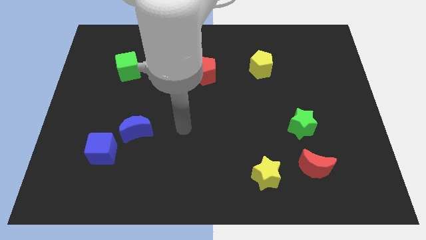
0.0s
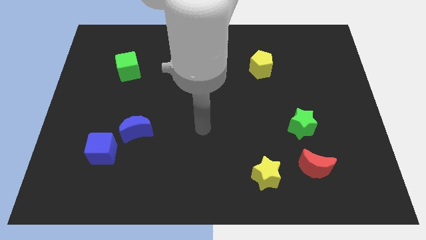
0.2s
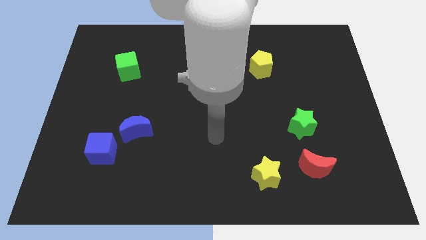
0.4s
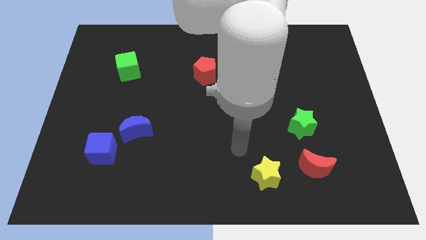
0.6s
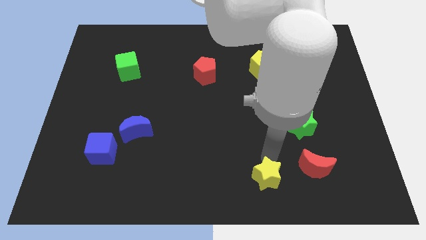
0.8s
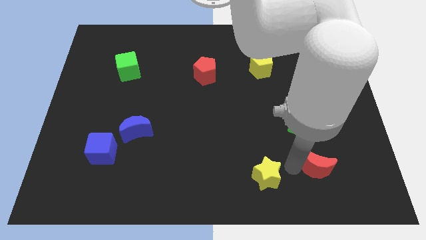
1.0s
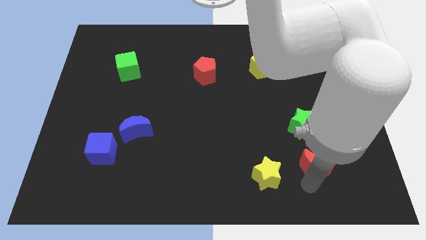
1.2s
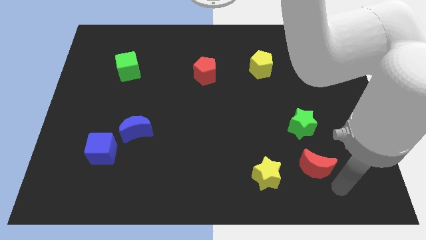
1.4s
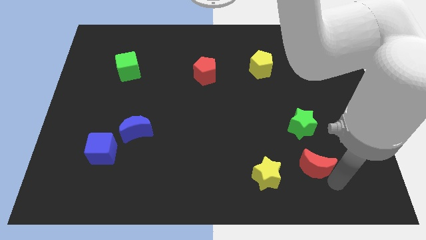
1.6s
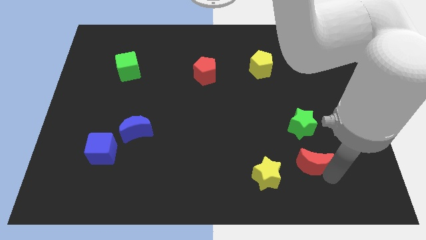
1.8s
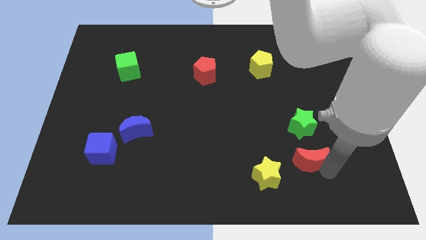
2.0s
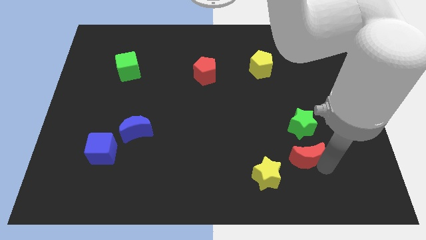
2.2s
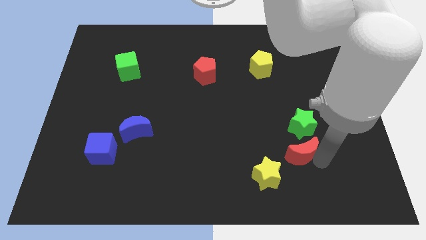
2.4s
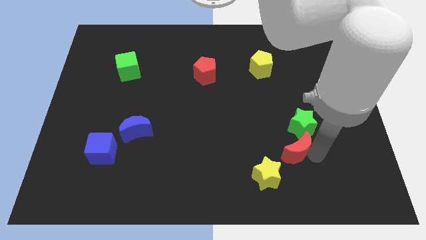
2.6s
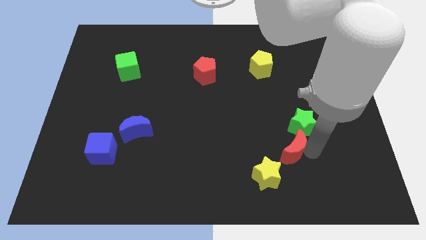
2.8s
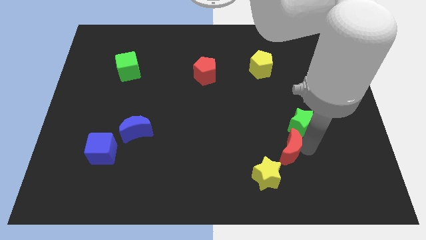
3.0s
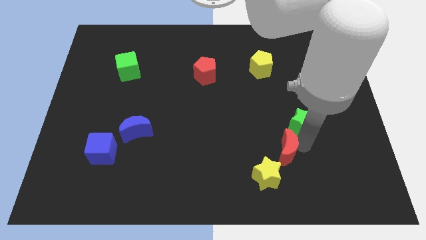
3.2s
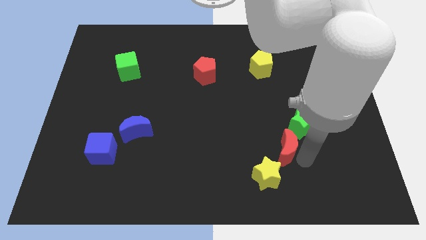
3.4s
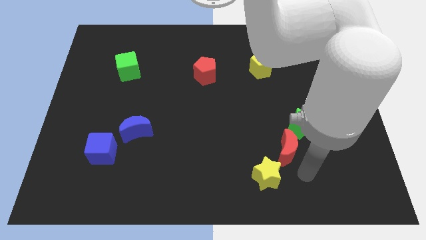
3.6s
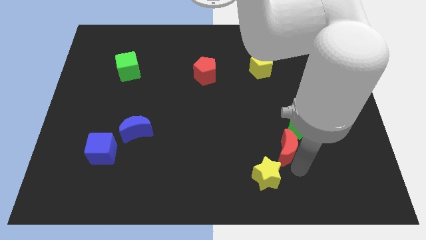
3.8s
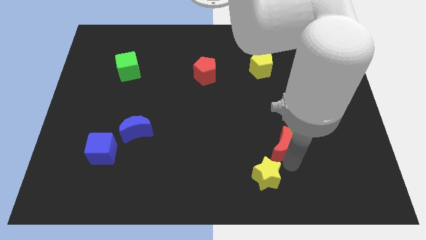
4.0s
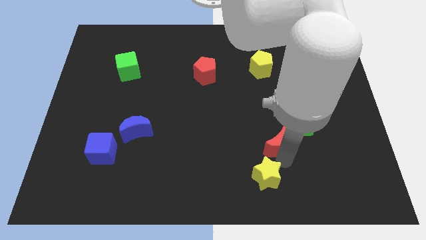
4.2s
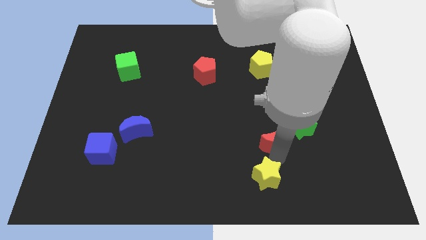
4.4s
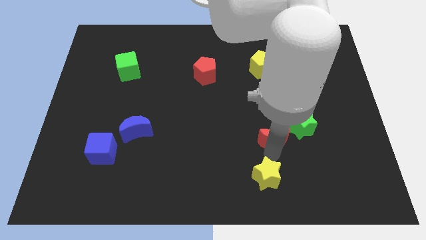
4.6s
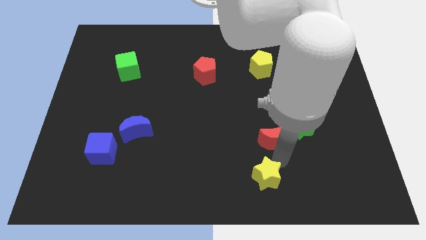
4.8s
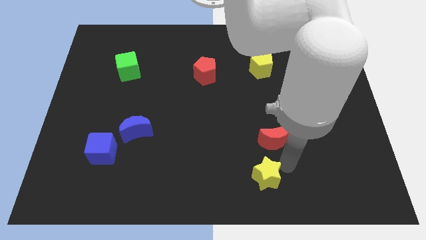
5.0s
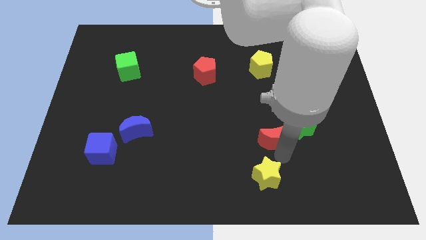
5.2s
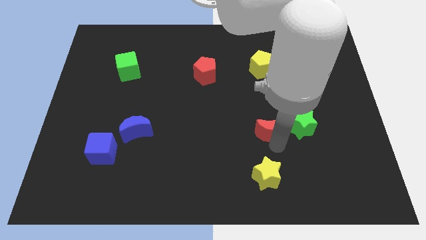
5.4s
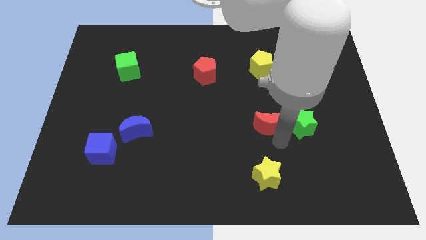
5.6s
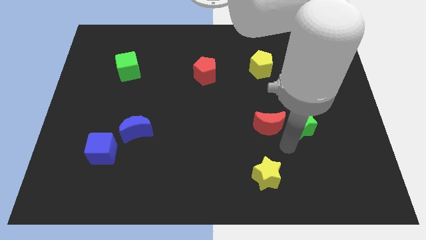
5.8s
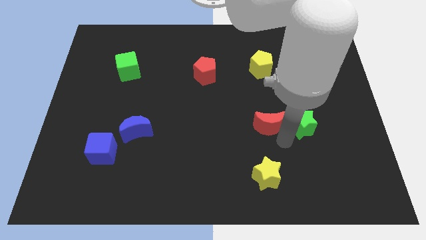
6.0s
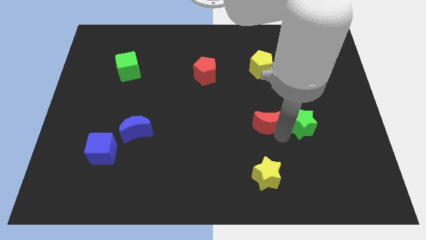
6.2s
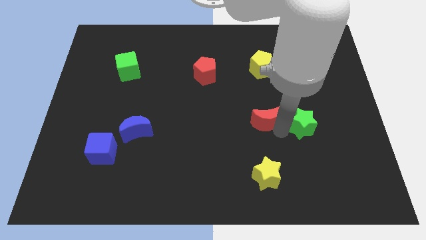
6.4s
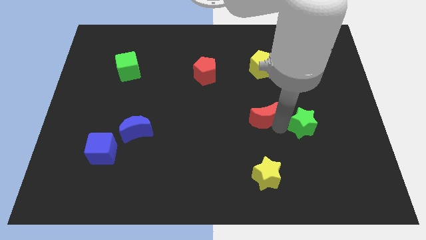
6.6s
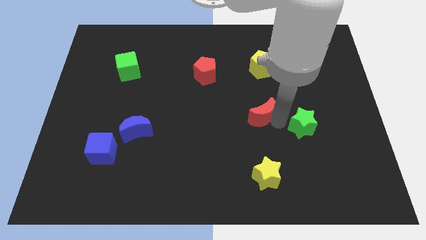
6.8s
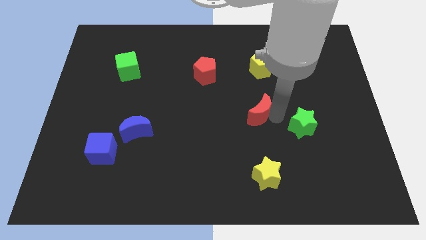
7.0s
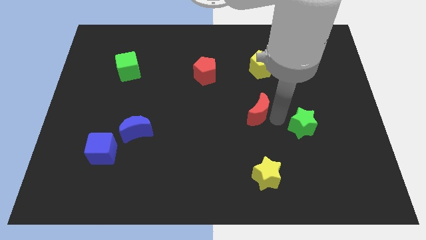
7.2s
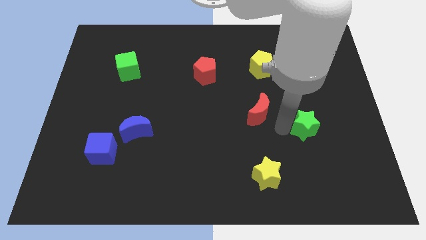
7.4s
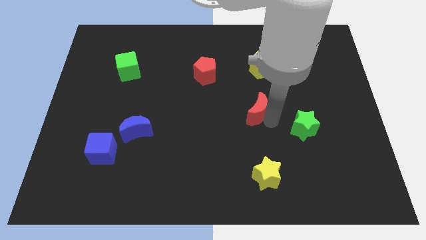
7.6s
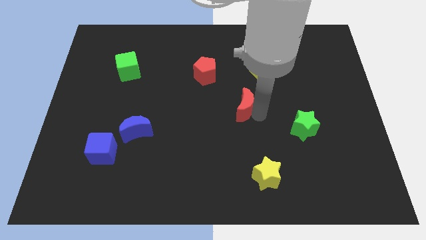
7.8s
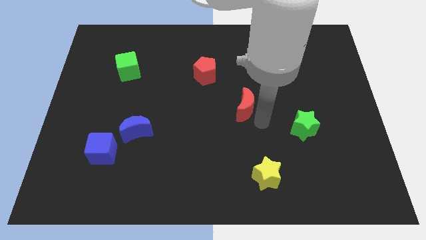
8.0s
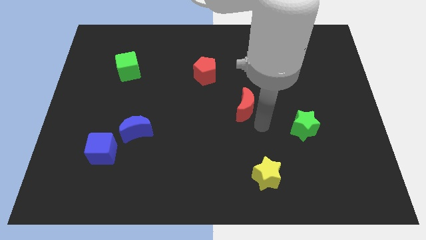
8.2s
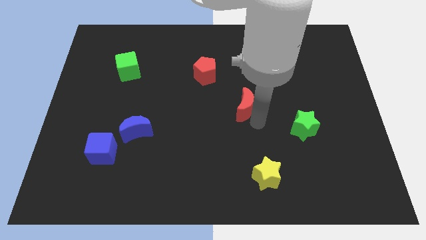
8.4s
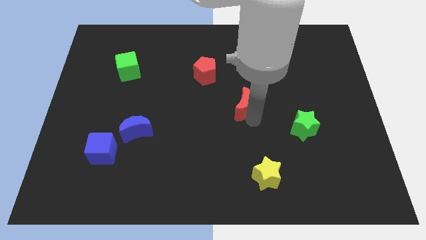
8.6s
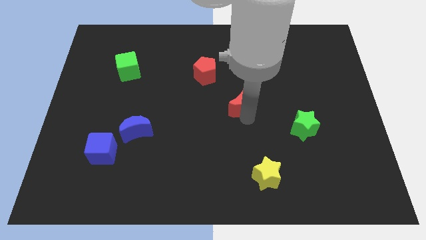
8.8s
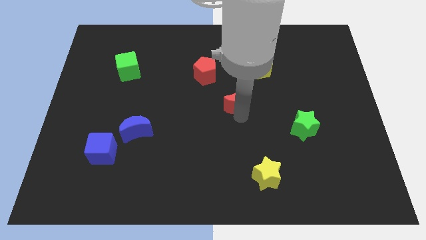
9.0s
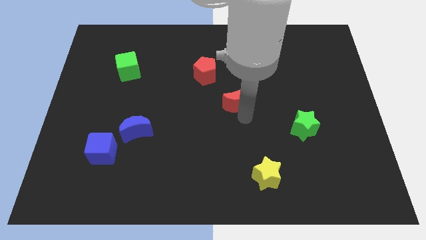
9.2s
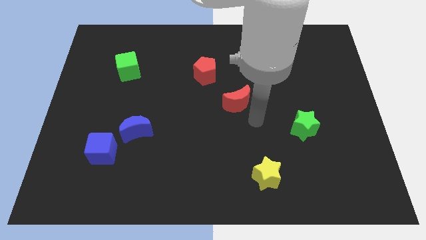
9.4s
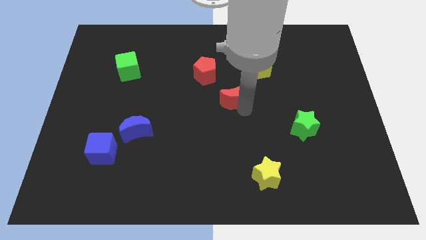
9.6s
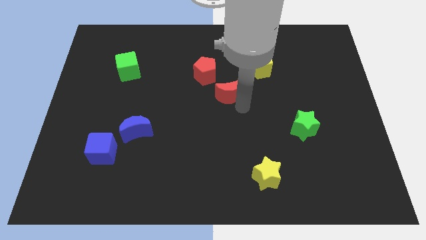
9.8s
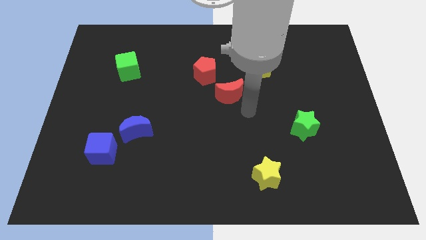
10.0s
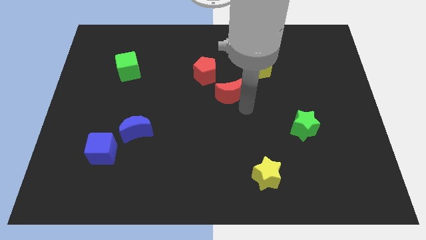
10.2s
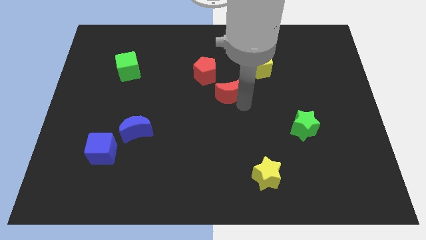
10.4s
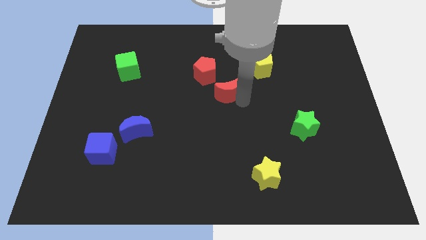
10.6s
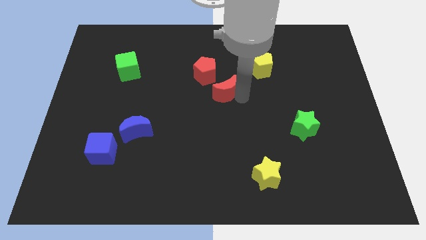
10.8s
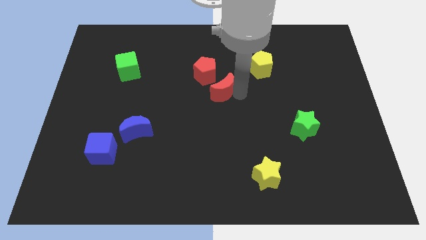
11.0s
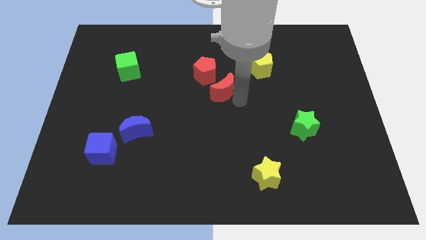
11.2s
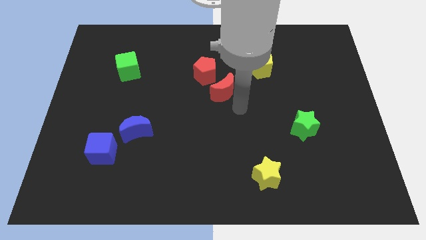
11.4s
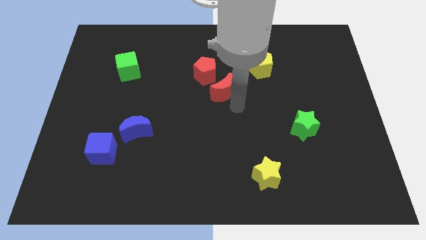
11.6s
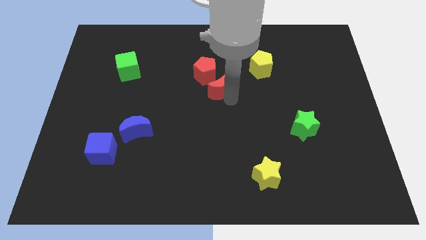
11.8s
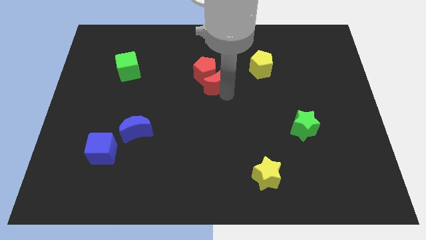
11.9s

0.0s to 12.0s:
slide the red moon next to the red pentagon

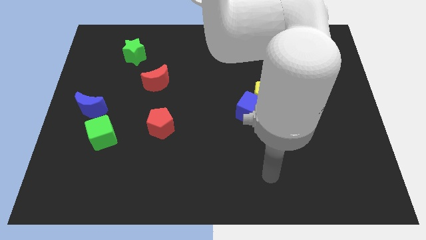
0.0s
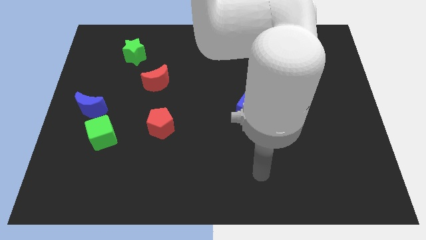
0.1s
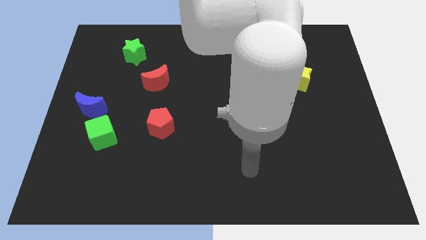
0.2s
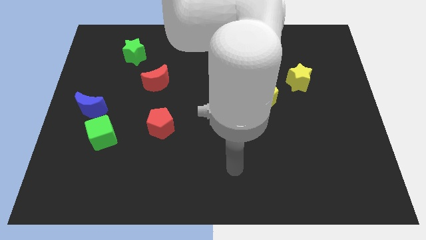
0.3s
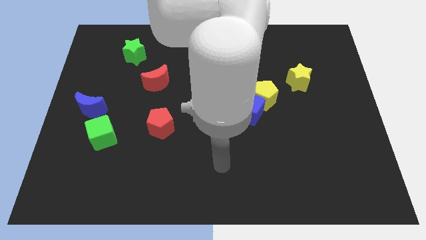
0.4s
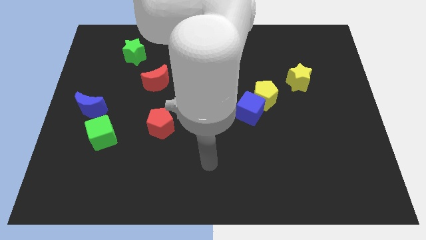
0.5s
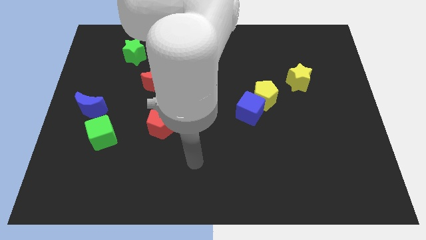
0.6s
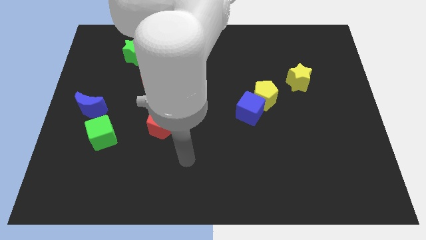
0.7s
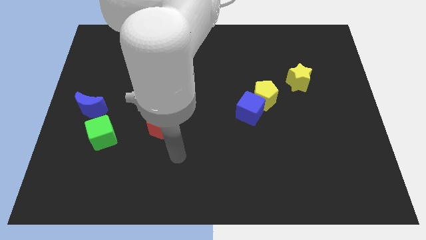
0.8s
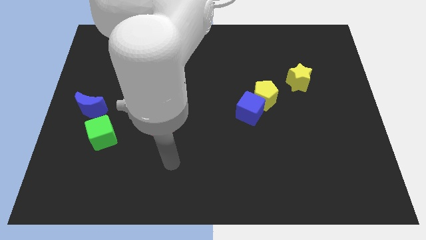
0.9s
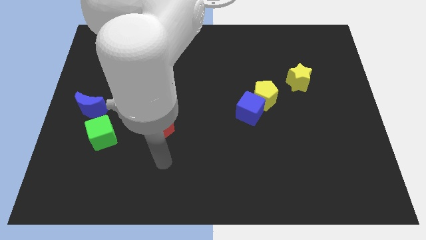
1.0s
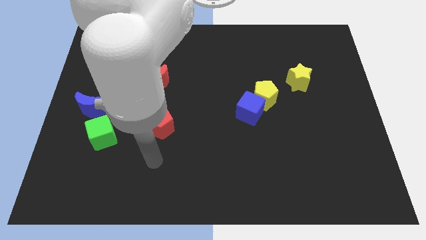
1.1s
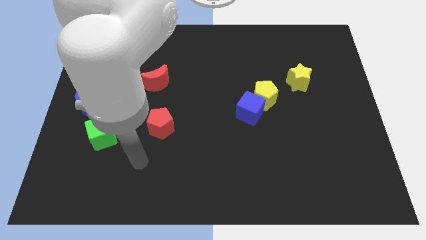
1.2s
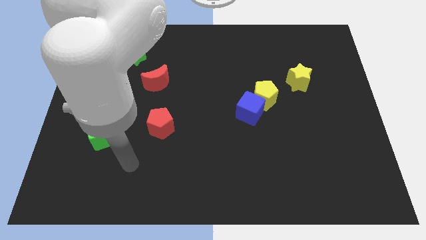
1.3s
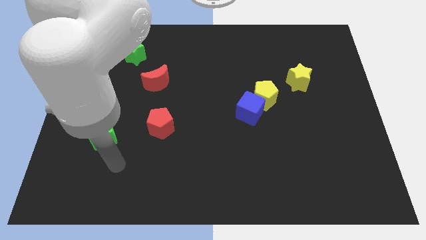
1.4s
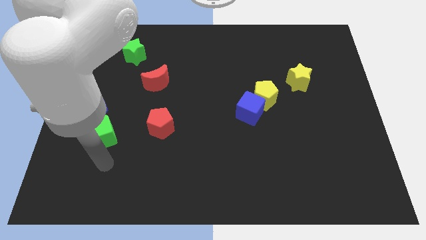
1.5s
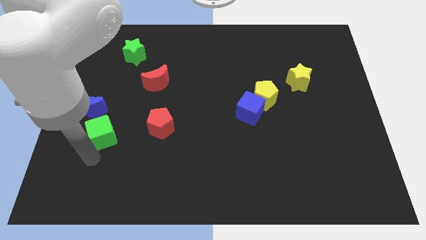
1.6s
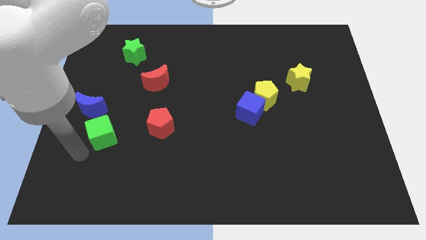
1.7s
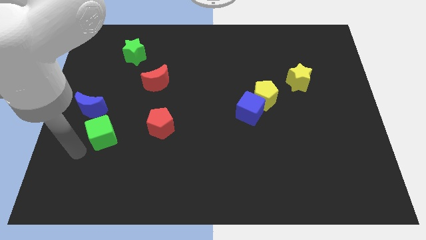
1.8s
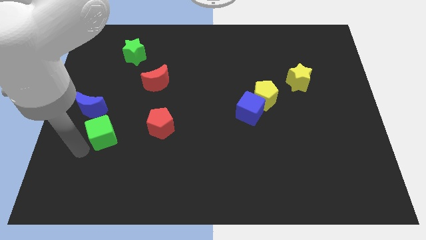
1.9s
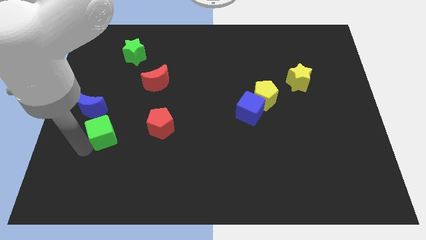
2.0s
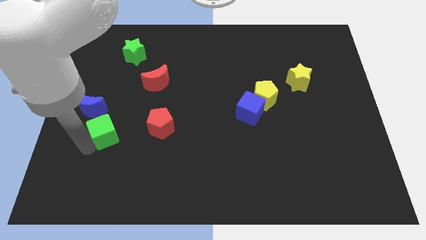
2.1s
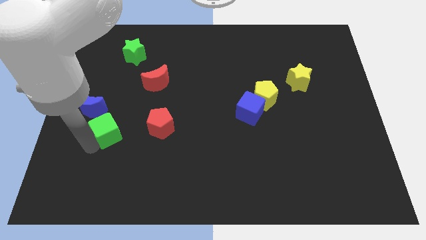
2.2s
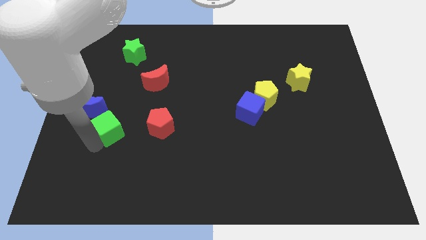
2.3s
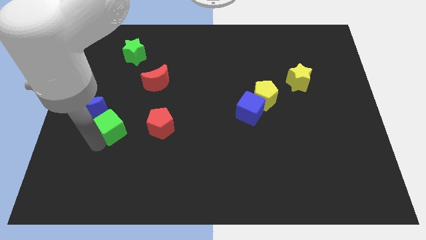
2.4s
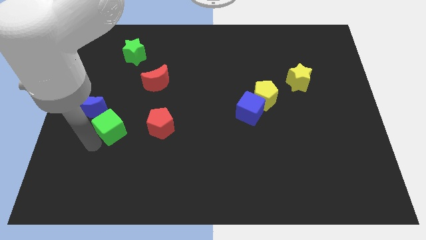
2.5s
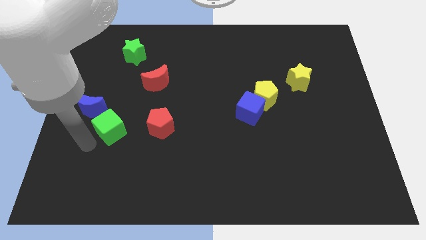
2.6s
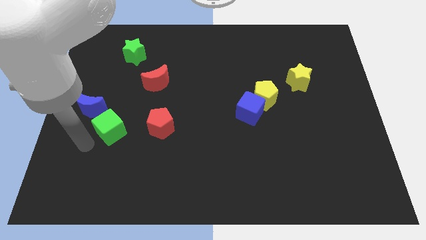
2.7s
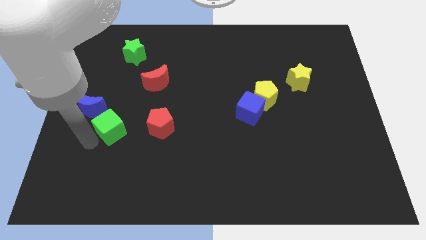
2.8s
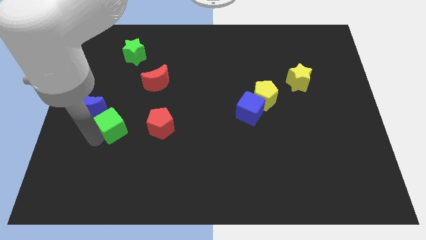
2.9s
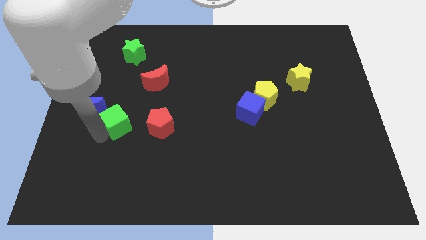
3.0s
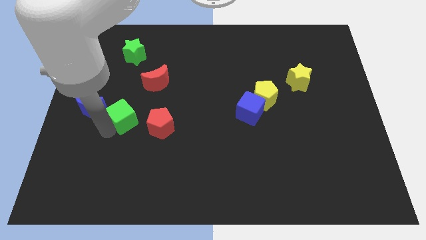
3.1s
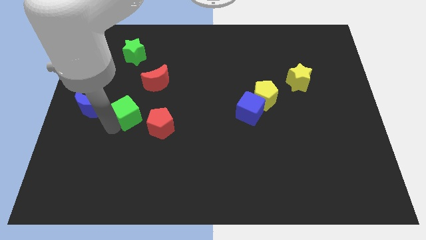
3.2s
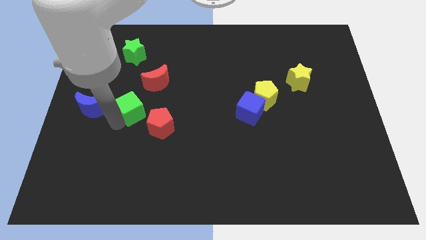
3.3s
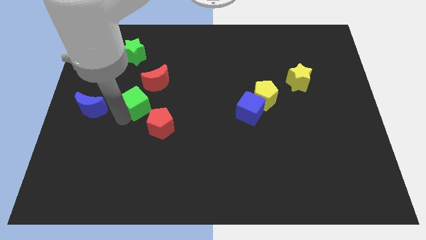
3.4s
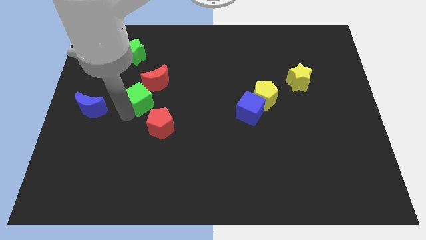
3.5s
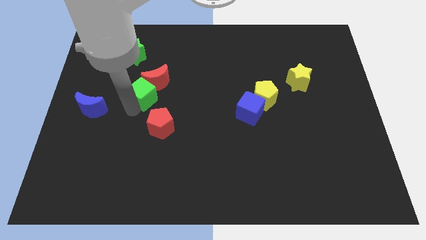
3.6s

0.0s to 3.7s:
put the green cube close to the red moon
